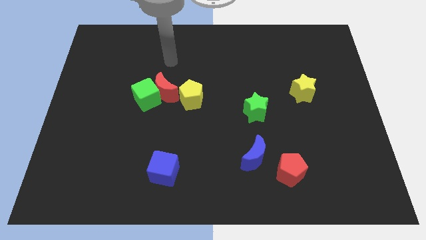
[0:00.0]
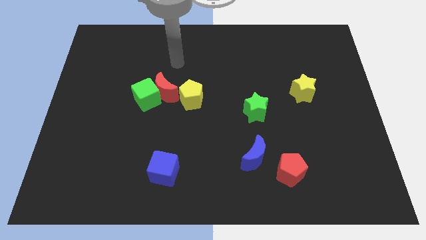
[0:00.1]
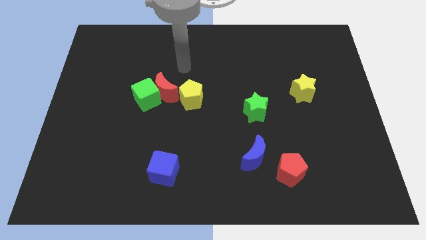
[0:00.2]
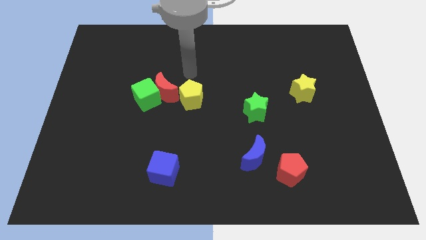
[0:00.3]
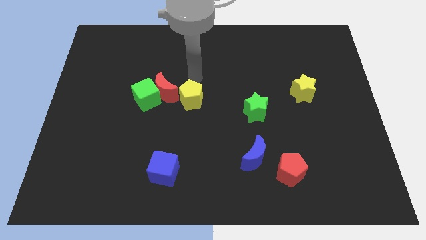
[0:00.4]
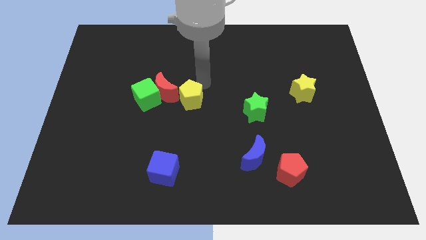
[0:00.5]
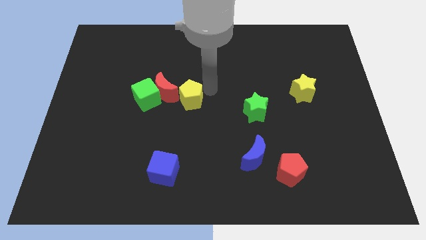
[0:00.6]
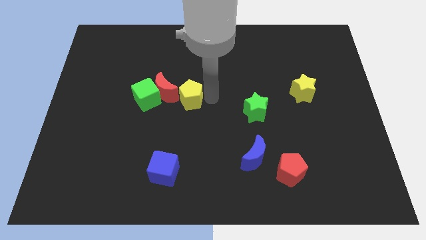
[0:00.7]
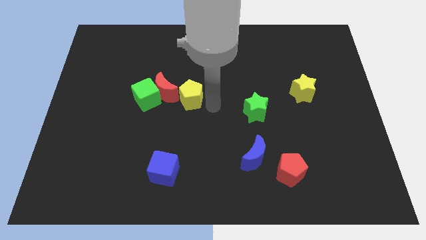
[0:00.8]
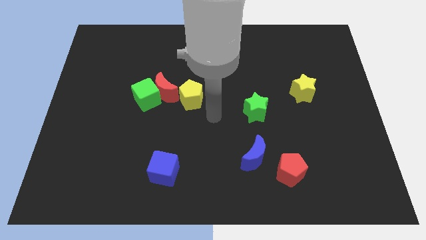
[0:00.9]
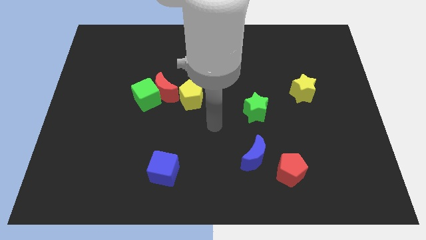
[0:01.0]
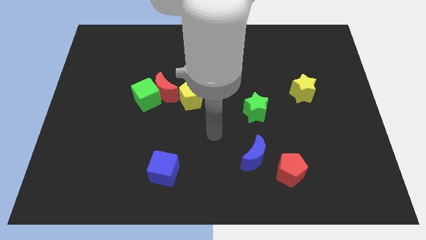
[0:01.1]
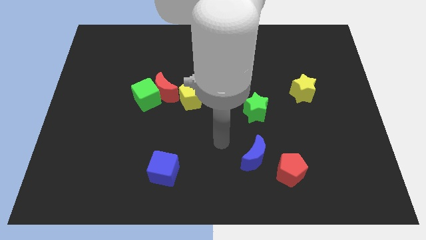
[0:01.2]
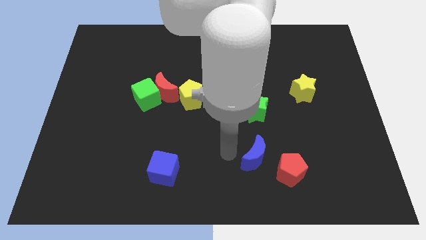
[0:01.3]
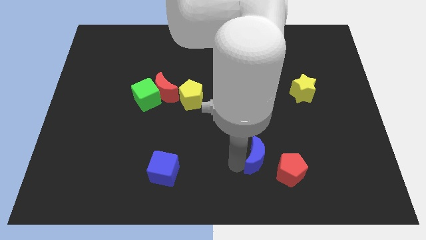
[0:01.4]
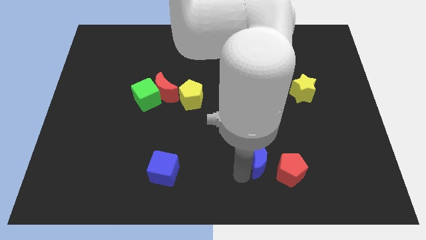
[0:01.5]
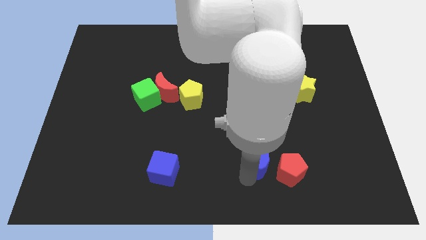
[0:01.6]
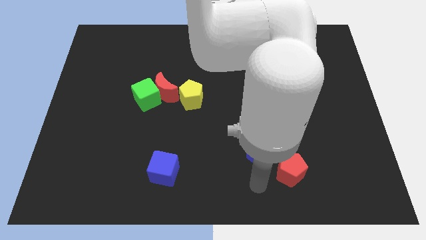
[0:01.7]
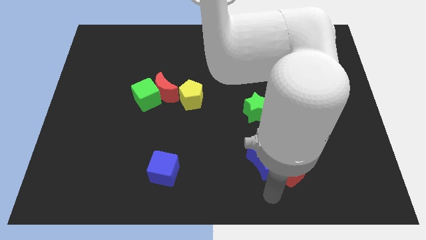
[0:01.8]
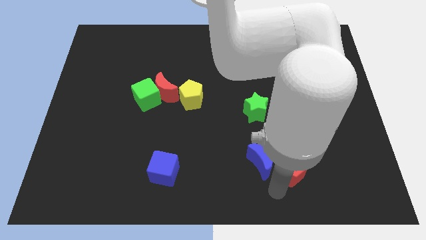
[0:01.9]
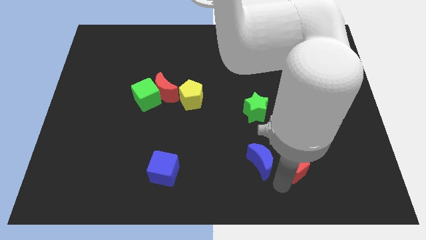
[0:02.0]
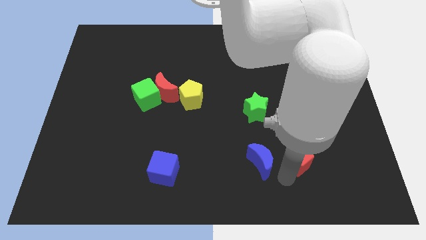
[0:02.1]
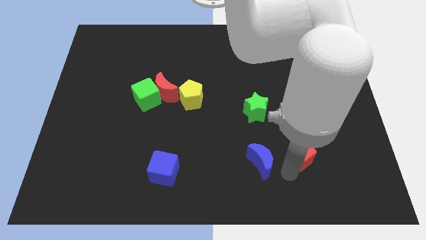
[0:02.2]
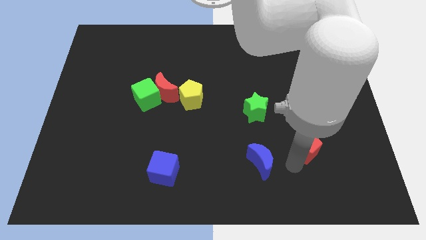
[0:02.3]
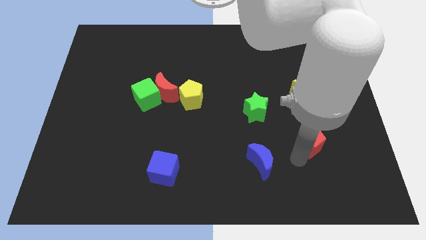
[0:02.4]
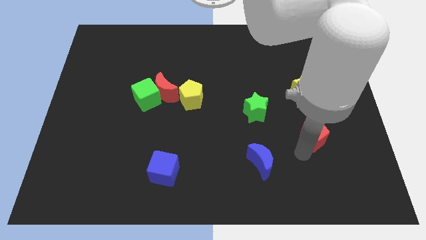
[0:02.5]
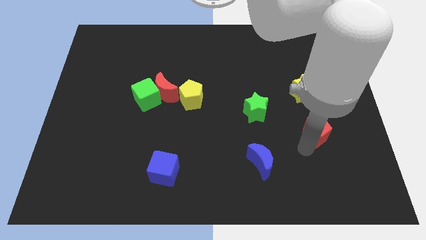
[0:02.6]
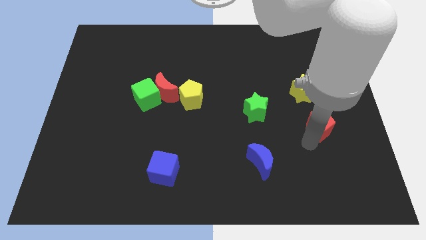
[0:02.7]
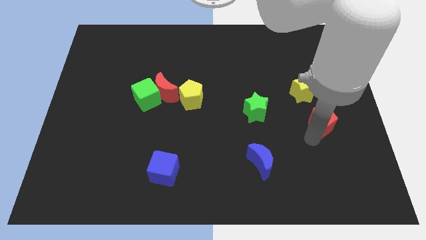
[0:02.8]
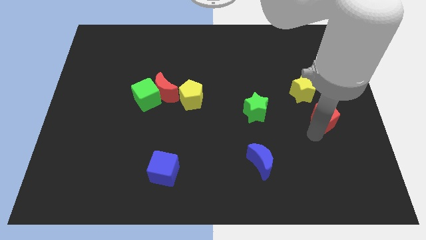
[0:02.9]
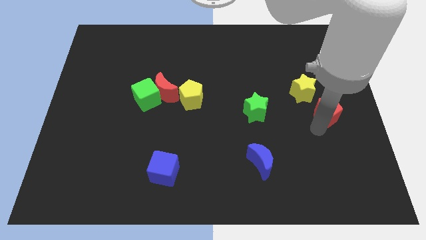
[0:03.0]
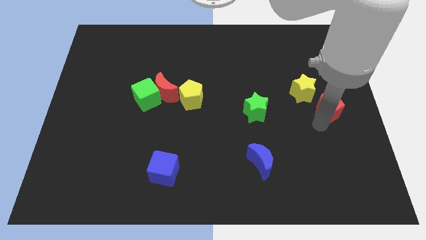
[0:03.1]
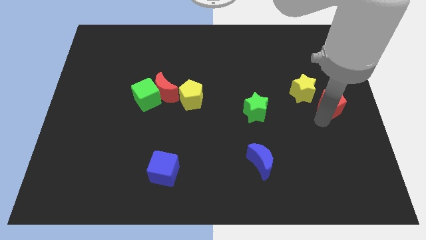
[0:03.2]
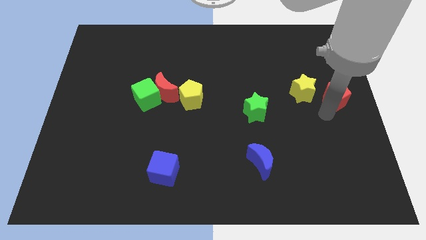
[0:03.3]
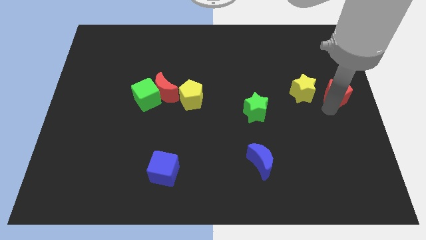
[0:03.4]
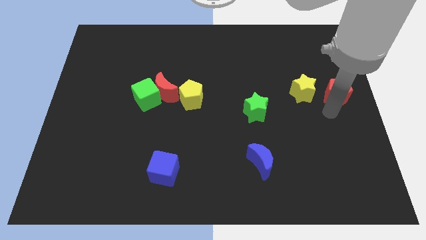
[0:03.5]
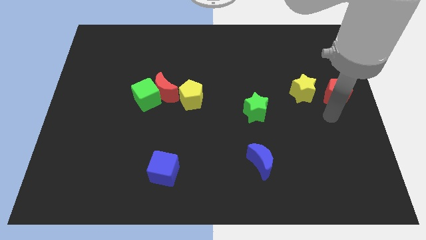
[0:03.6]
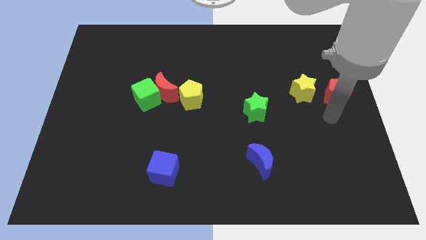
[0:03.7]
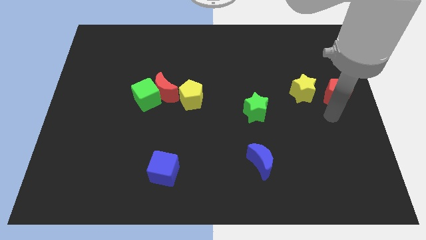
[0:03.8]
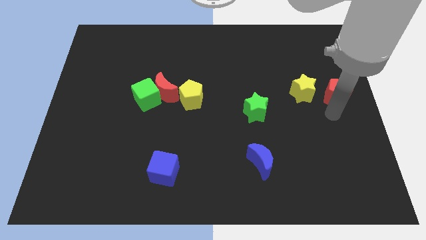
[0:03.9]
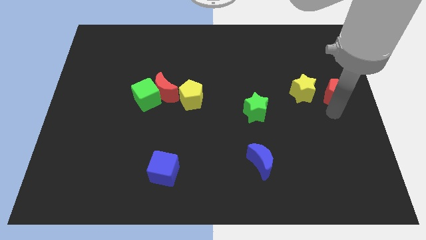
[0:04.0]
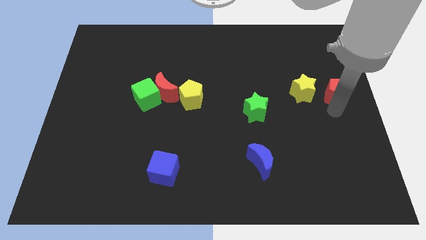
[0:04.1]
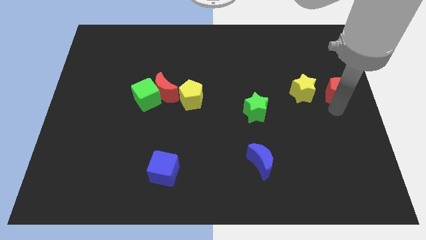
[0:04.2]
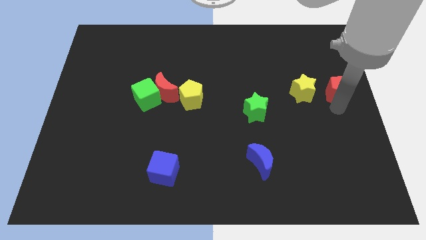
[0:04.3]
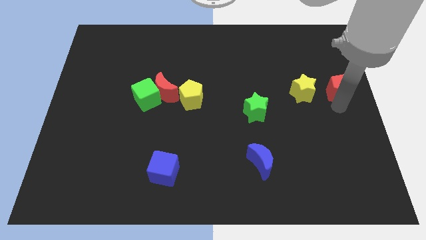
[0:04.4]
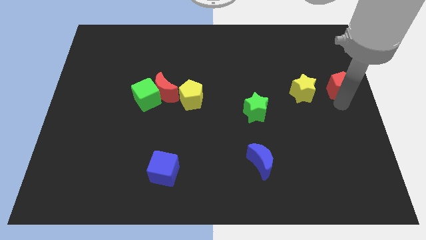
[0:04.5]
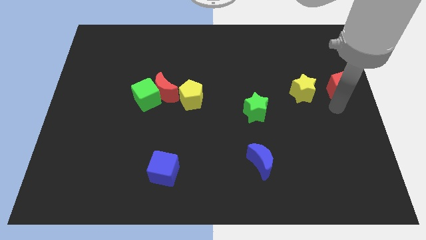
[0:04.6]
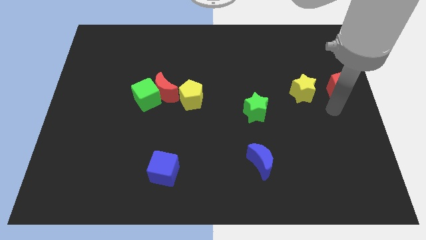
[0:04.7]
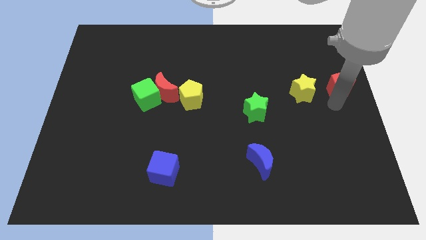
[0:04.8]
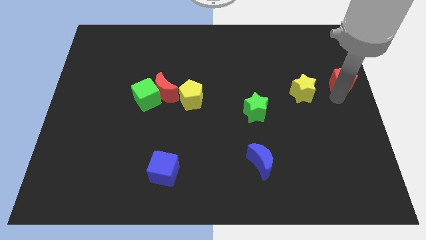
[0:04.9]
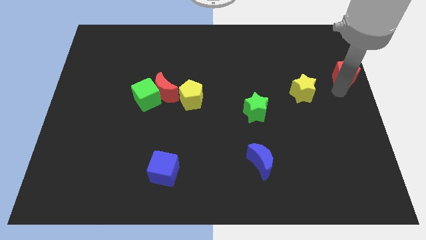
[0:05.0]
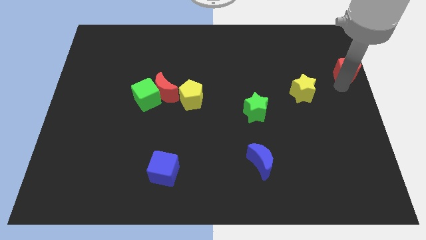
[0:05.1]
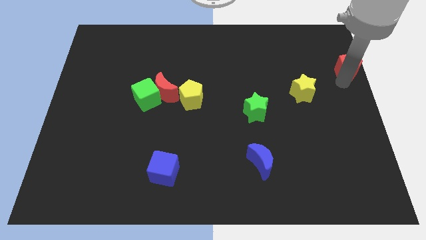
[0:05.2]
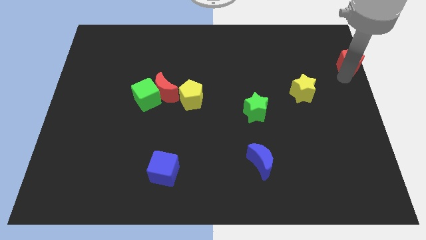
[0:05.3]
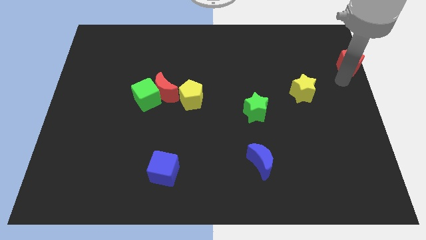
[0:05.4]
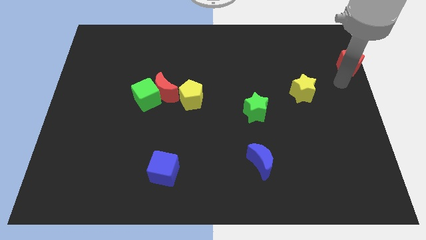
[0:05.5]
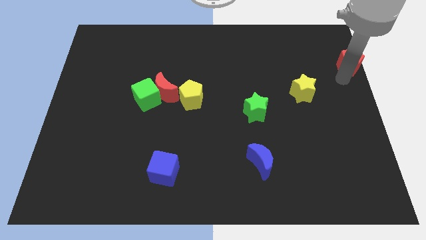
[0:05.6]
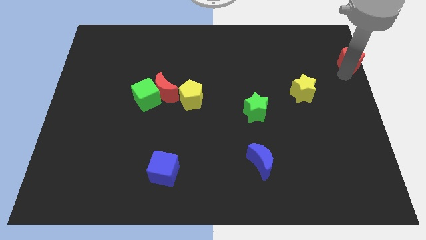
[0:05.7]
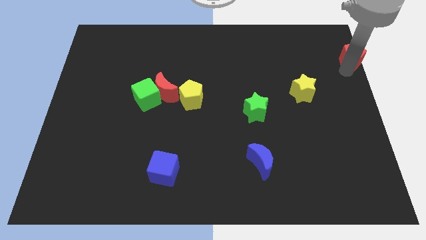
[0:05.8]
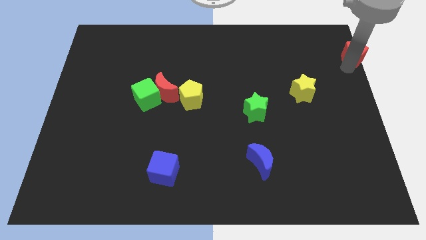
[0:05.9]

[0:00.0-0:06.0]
move the red pentagon to the top right corner

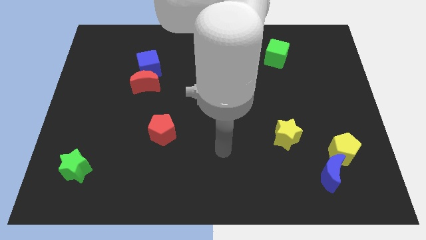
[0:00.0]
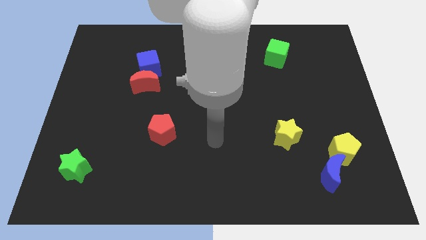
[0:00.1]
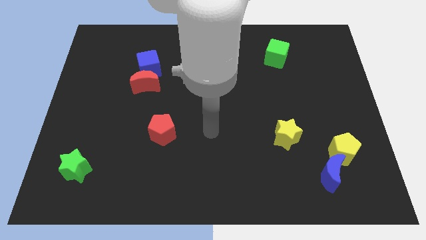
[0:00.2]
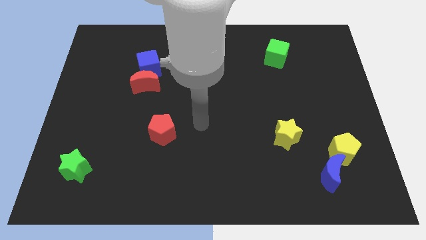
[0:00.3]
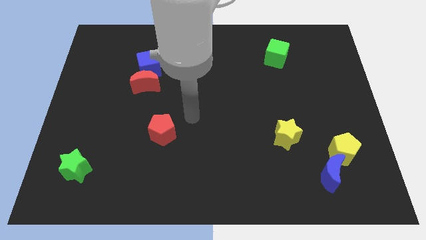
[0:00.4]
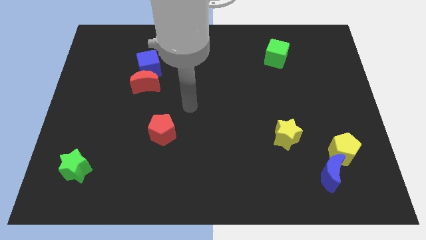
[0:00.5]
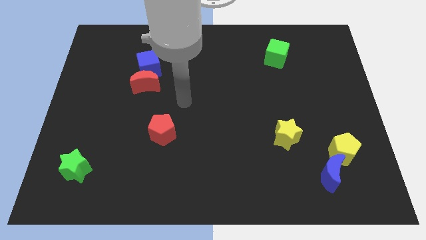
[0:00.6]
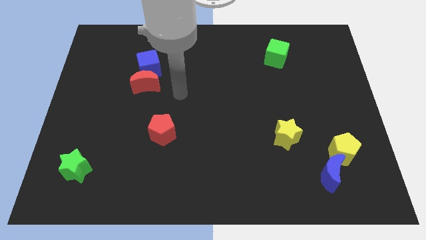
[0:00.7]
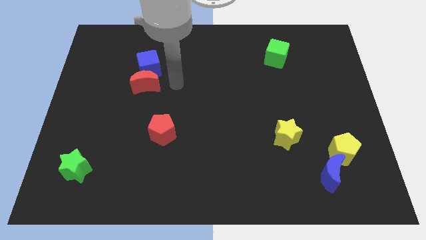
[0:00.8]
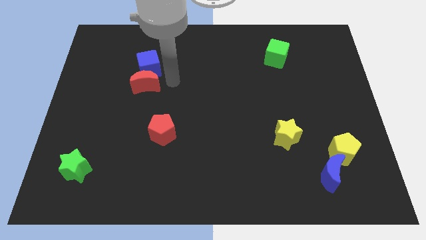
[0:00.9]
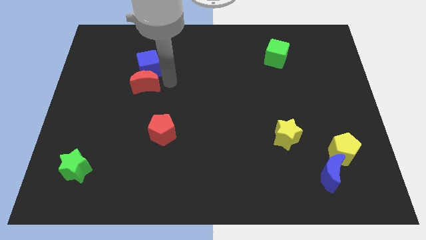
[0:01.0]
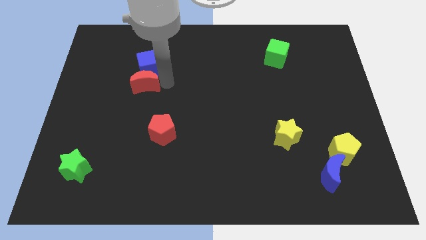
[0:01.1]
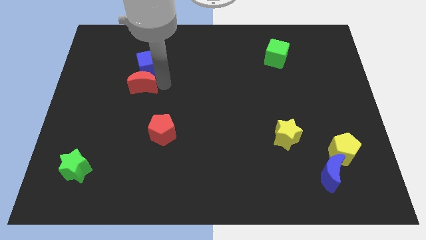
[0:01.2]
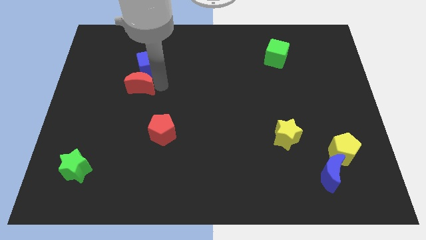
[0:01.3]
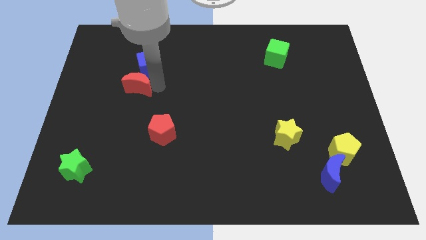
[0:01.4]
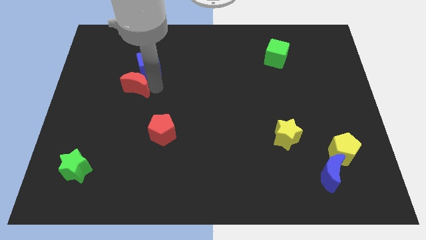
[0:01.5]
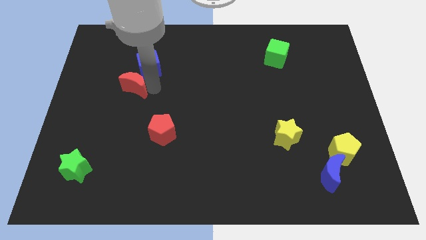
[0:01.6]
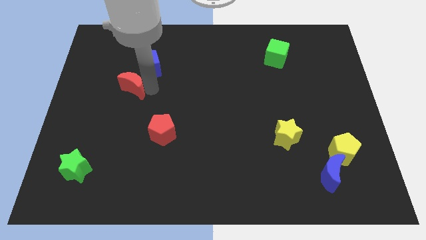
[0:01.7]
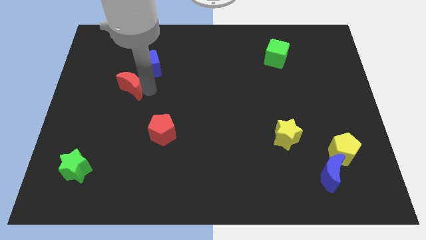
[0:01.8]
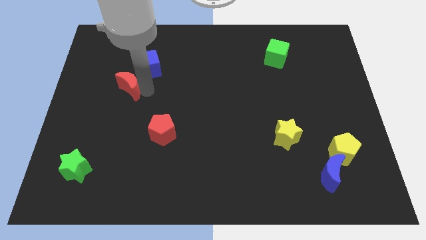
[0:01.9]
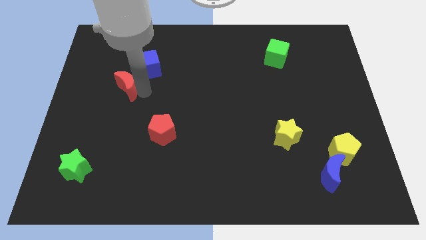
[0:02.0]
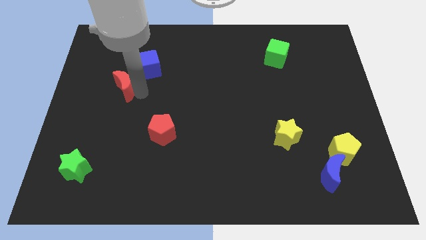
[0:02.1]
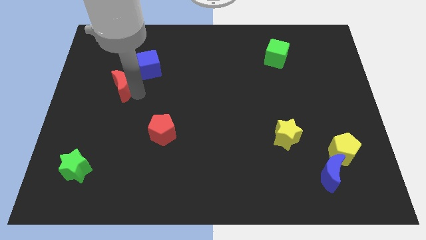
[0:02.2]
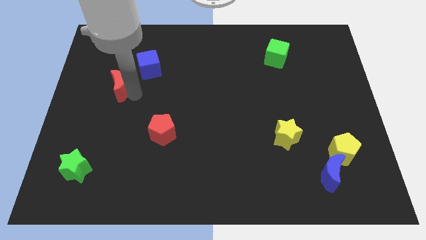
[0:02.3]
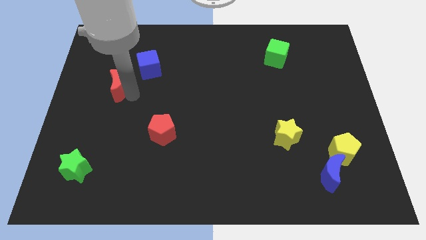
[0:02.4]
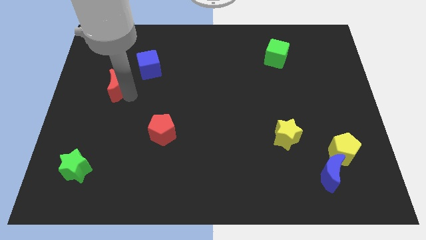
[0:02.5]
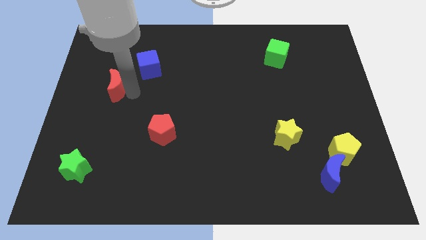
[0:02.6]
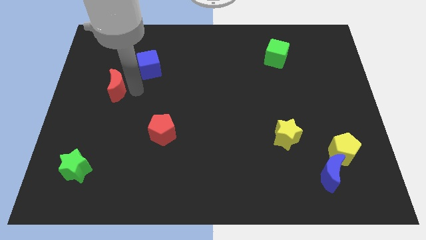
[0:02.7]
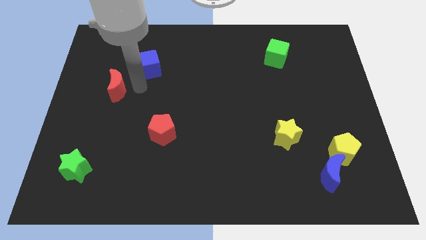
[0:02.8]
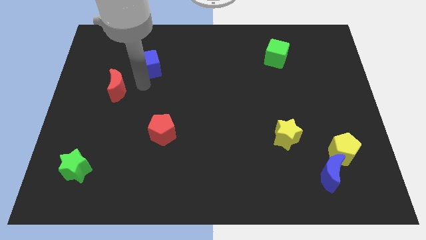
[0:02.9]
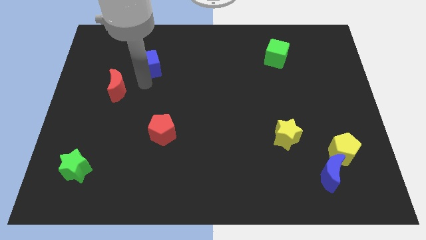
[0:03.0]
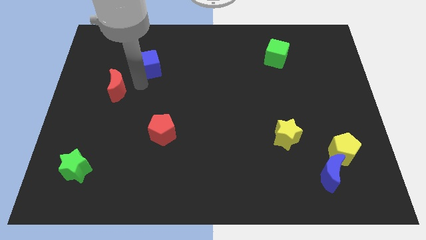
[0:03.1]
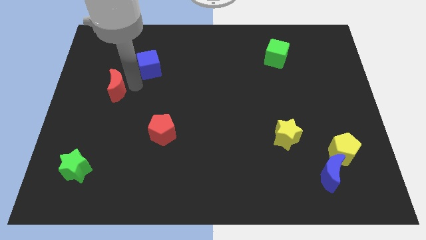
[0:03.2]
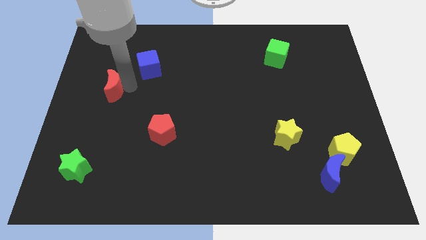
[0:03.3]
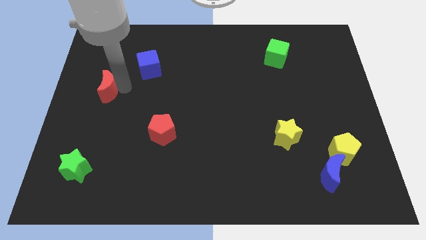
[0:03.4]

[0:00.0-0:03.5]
put the red moon to the left side of the board
